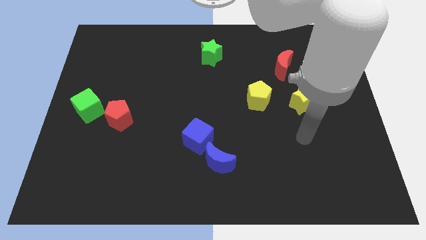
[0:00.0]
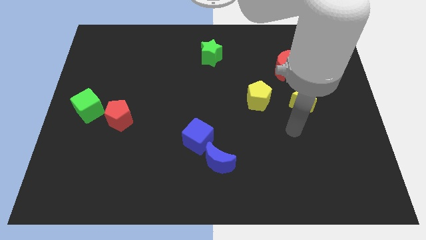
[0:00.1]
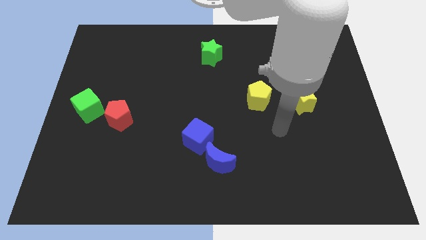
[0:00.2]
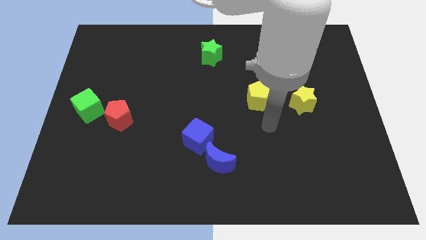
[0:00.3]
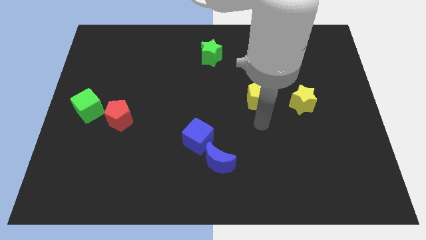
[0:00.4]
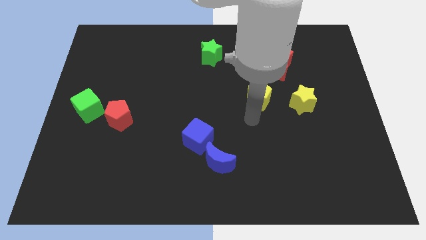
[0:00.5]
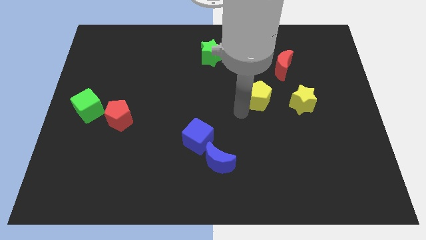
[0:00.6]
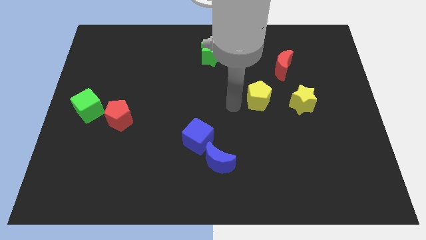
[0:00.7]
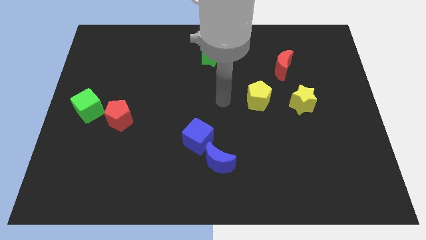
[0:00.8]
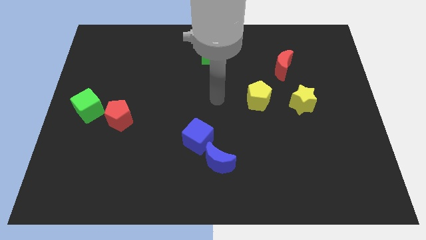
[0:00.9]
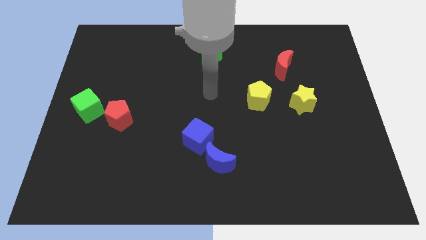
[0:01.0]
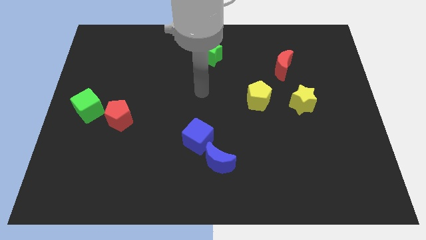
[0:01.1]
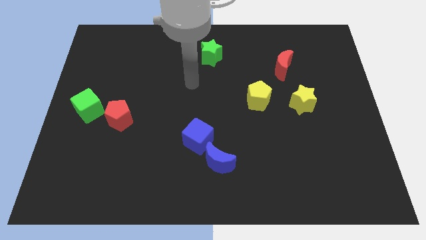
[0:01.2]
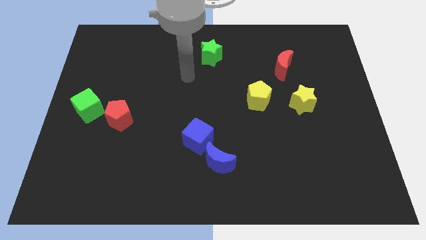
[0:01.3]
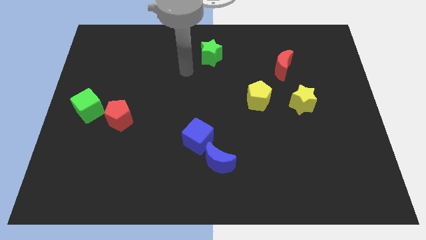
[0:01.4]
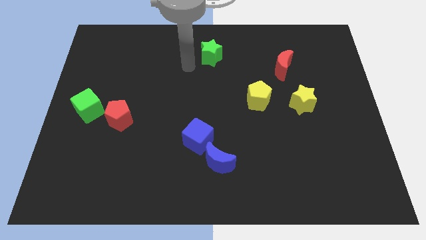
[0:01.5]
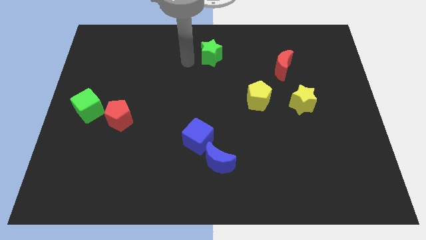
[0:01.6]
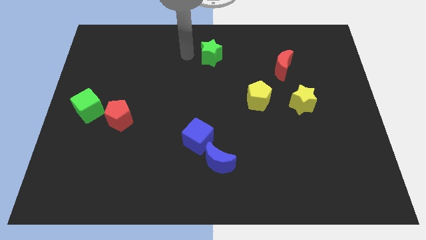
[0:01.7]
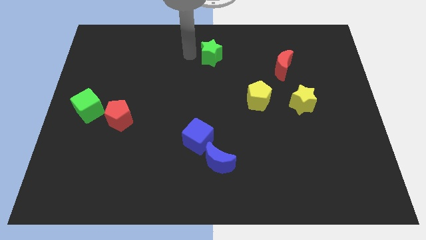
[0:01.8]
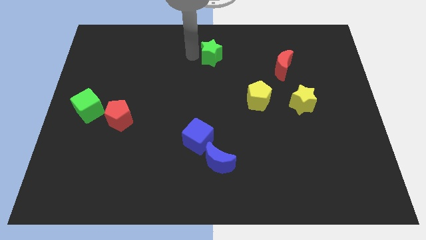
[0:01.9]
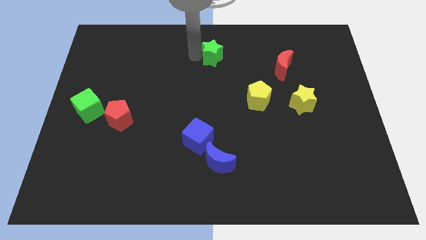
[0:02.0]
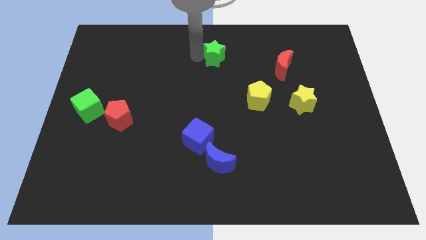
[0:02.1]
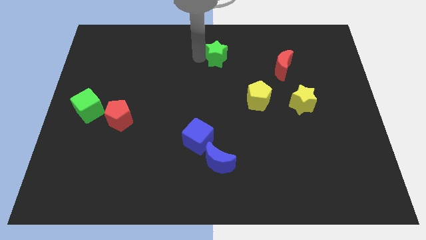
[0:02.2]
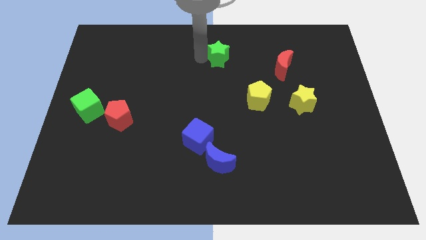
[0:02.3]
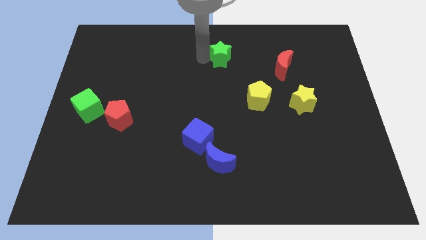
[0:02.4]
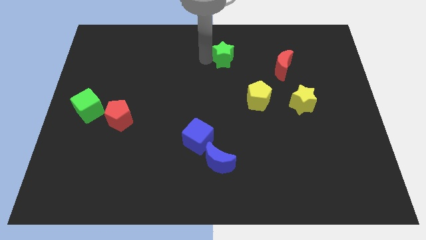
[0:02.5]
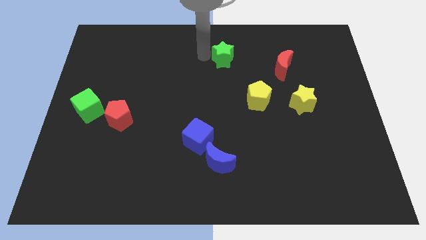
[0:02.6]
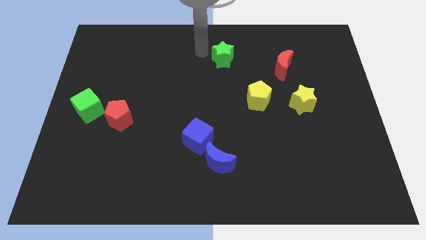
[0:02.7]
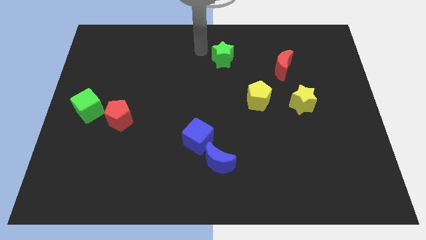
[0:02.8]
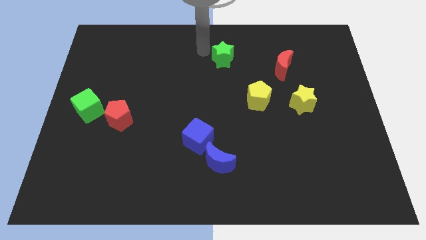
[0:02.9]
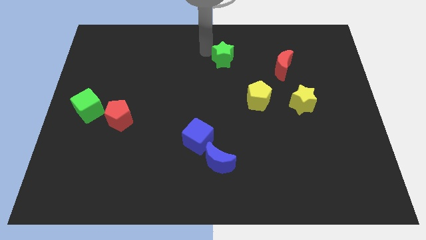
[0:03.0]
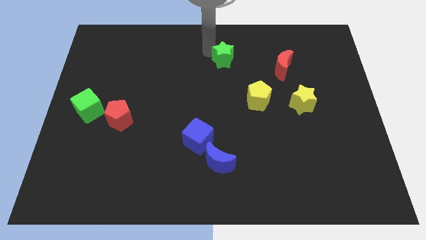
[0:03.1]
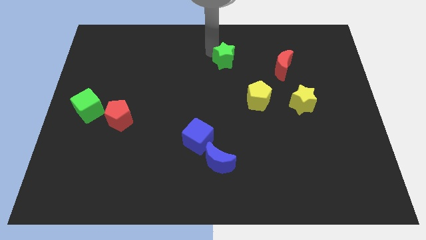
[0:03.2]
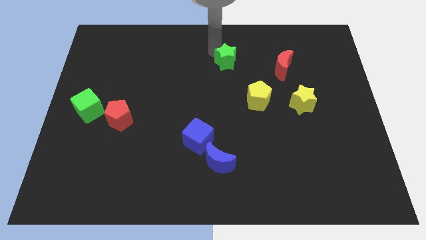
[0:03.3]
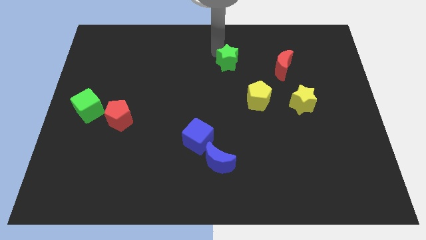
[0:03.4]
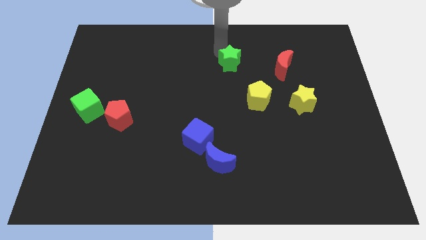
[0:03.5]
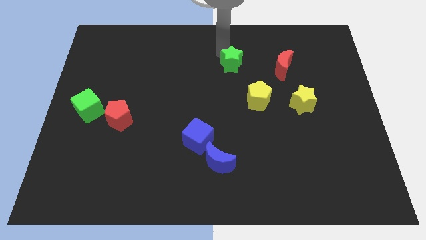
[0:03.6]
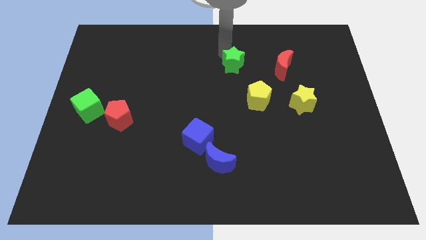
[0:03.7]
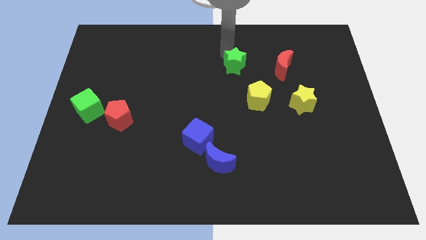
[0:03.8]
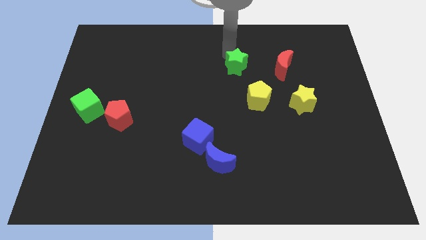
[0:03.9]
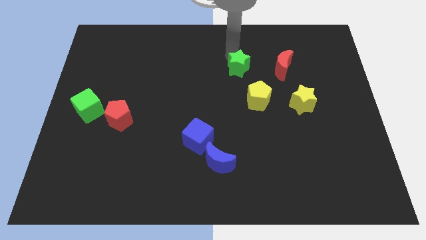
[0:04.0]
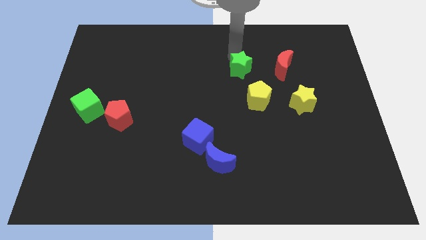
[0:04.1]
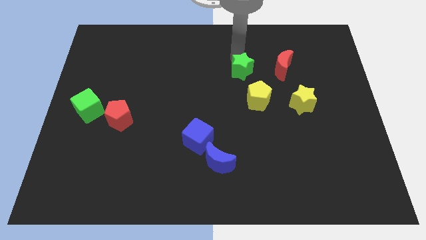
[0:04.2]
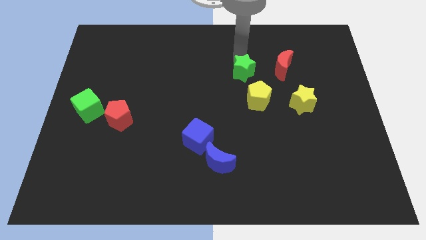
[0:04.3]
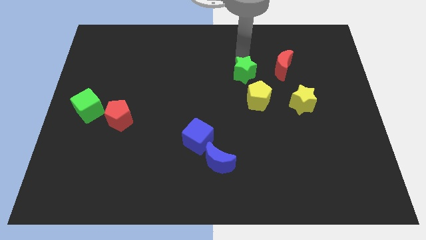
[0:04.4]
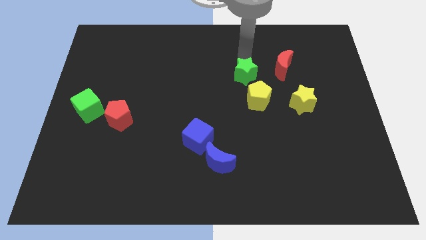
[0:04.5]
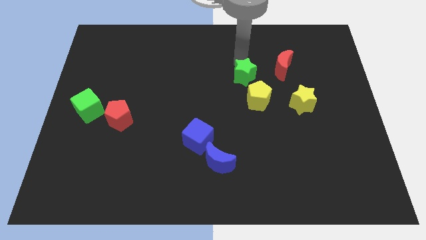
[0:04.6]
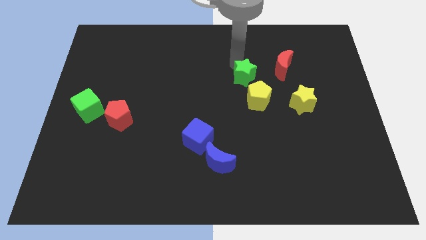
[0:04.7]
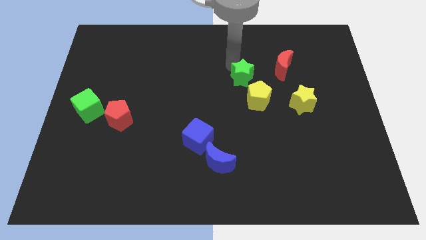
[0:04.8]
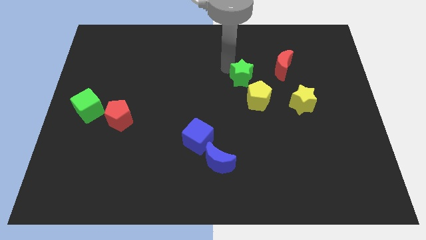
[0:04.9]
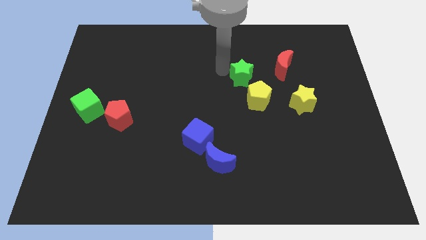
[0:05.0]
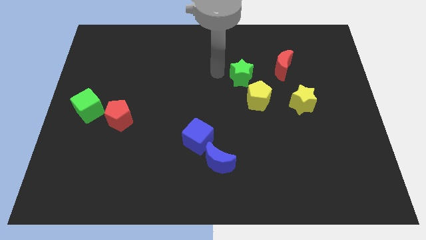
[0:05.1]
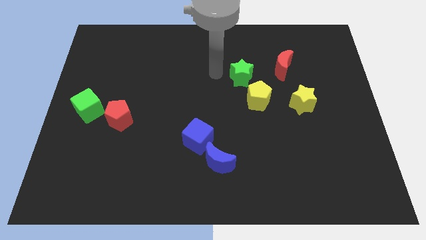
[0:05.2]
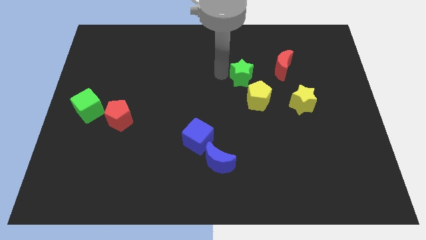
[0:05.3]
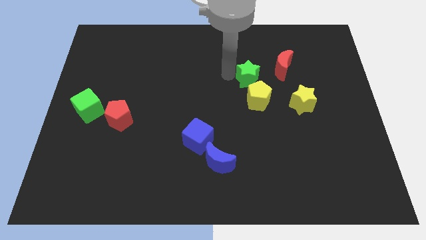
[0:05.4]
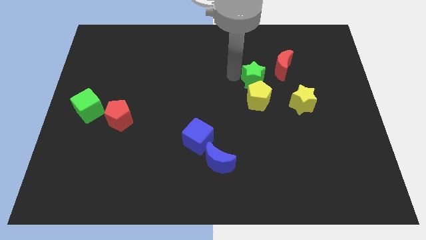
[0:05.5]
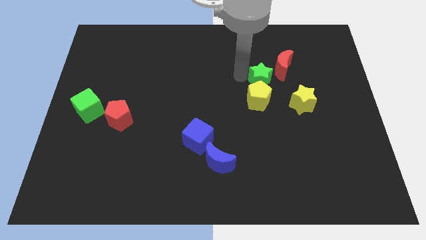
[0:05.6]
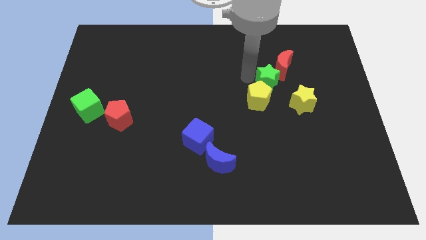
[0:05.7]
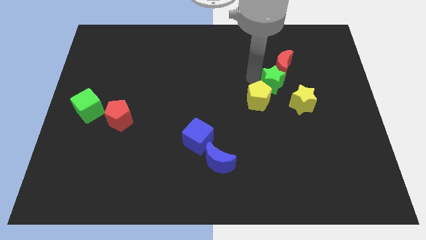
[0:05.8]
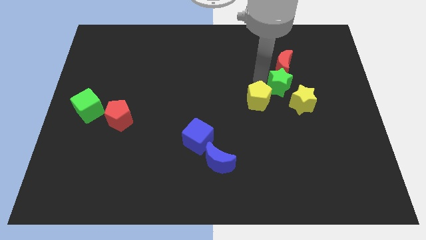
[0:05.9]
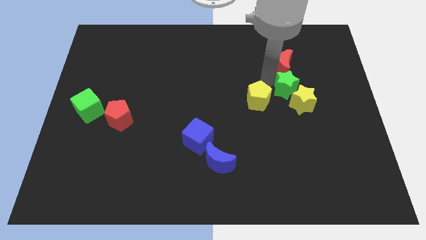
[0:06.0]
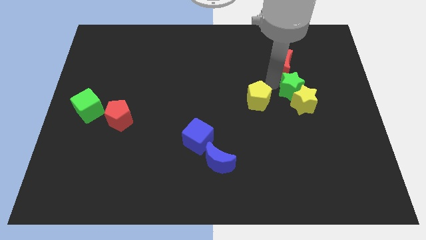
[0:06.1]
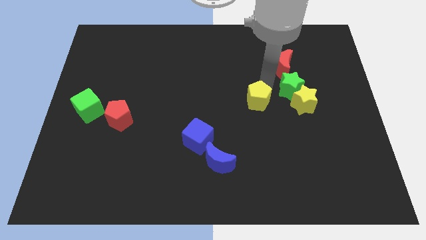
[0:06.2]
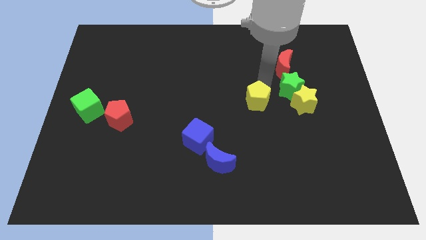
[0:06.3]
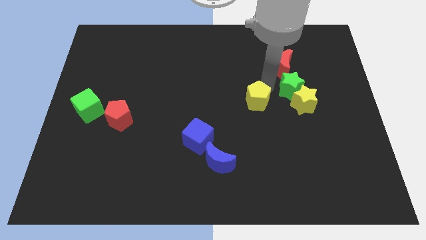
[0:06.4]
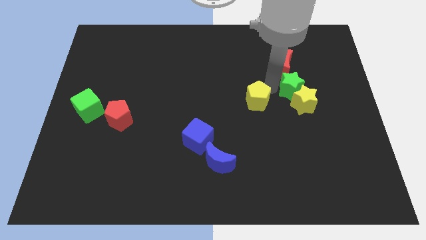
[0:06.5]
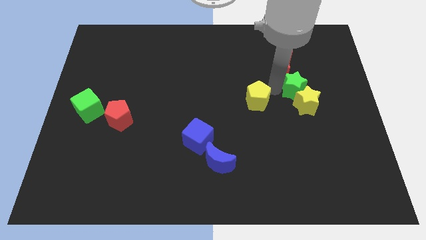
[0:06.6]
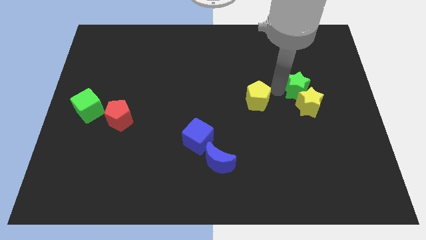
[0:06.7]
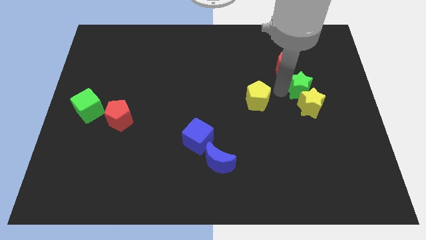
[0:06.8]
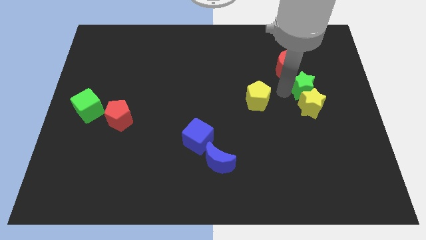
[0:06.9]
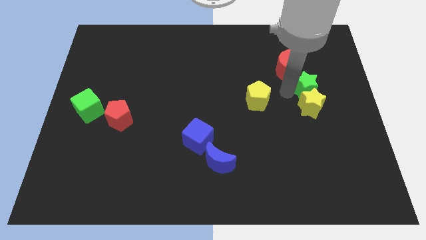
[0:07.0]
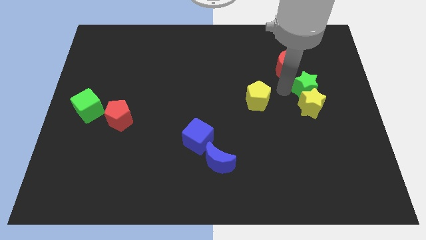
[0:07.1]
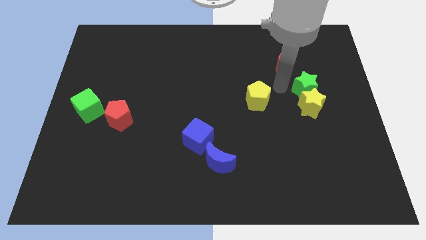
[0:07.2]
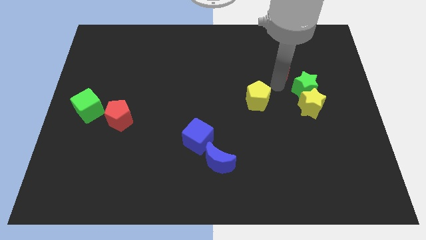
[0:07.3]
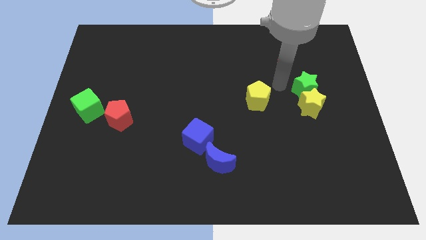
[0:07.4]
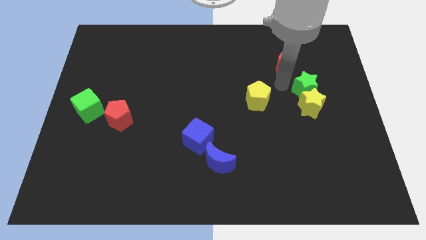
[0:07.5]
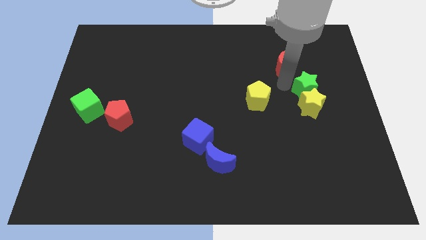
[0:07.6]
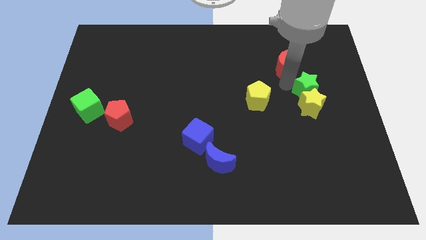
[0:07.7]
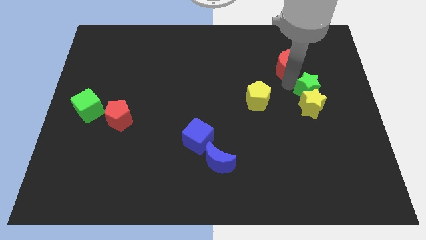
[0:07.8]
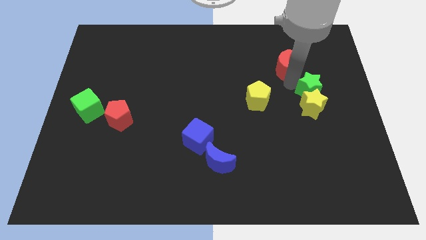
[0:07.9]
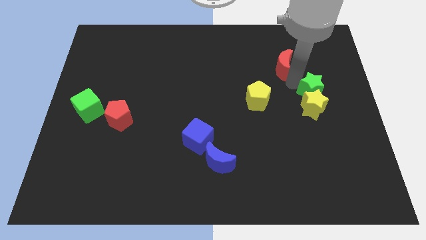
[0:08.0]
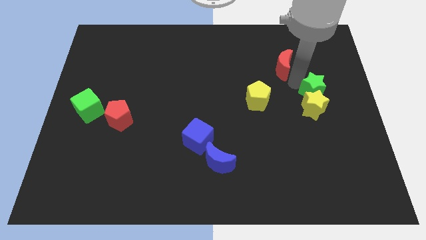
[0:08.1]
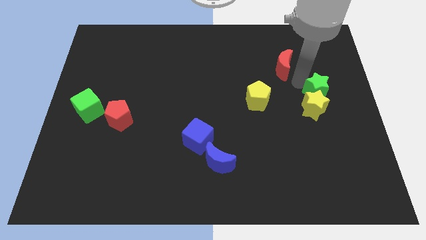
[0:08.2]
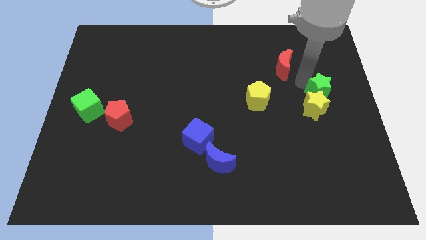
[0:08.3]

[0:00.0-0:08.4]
push the green star to the right side
